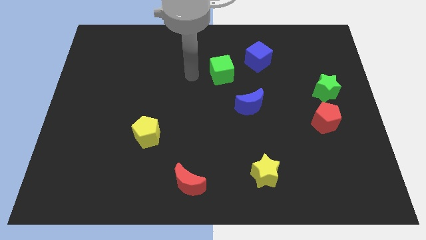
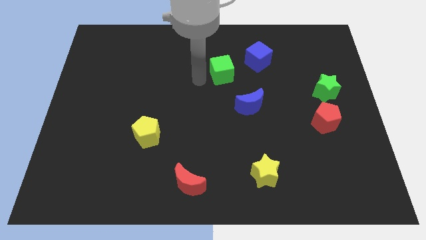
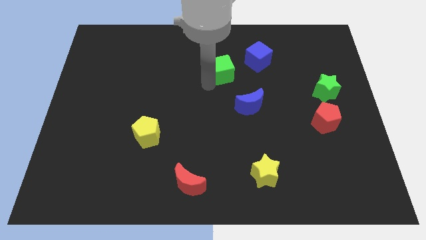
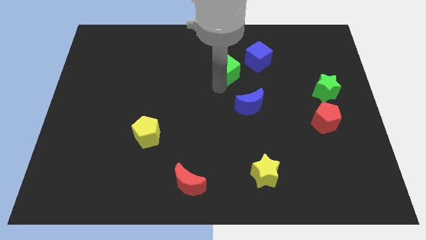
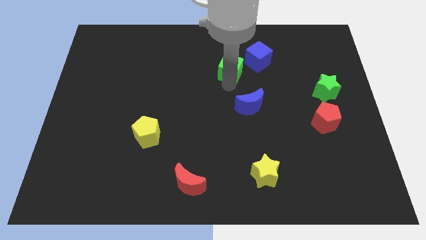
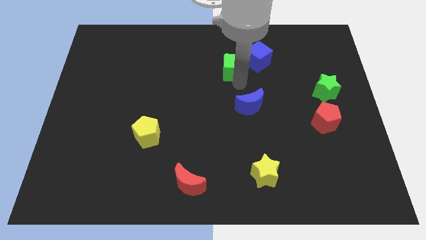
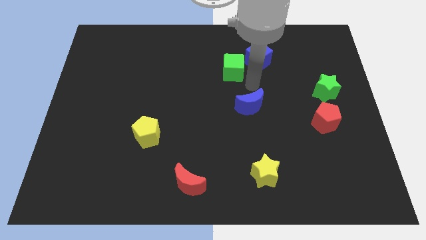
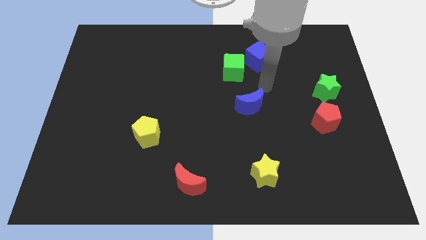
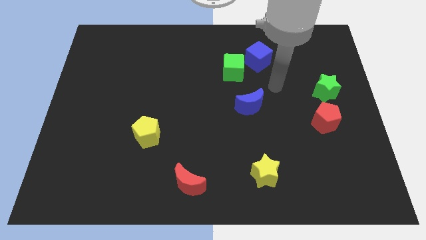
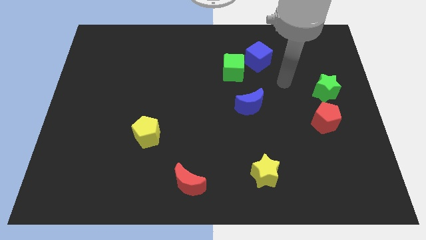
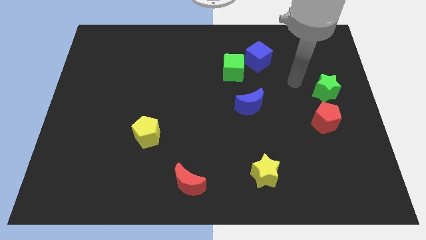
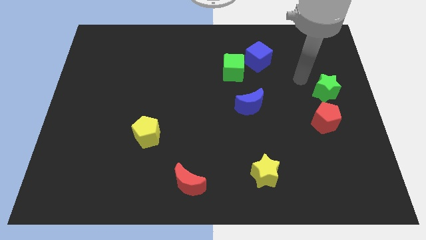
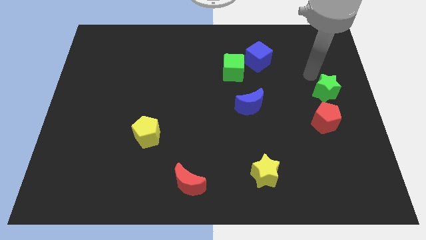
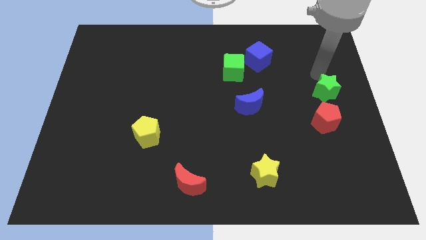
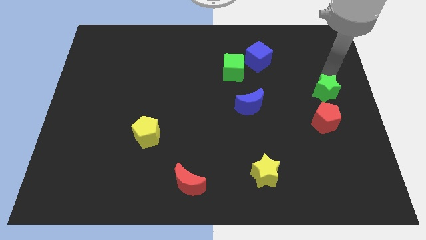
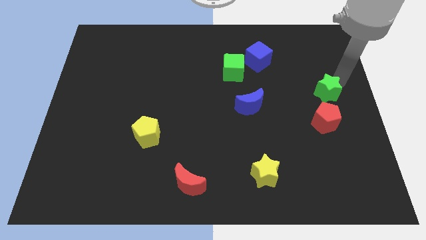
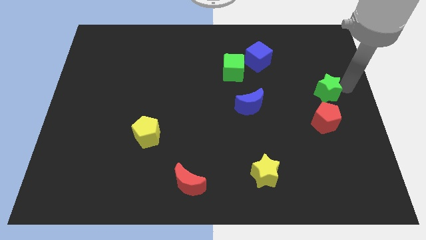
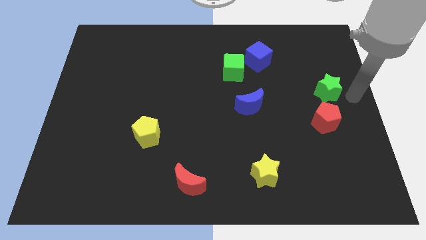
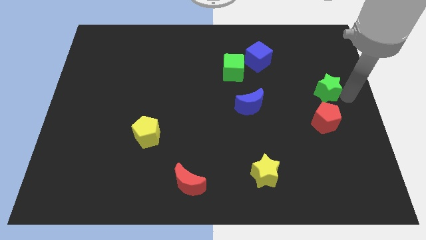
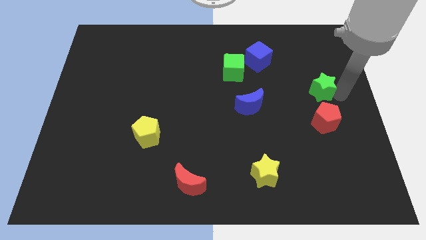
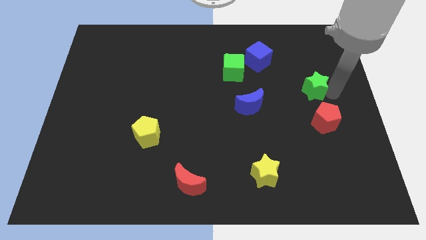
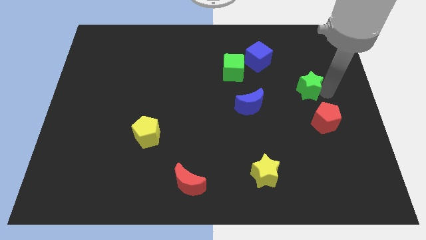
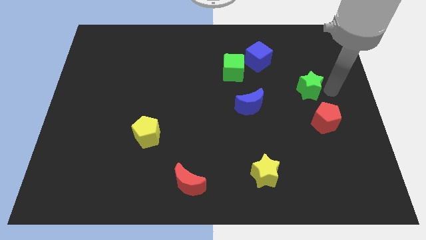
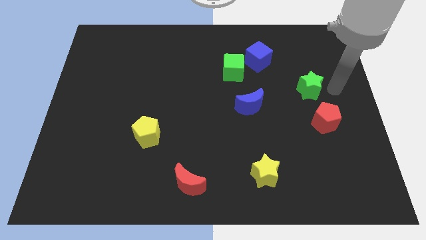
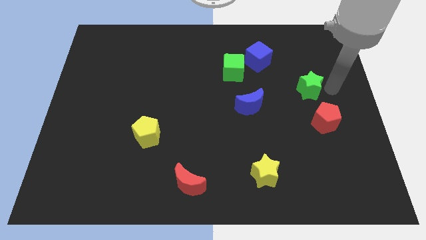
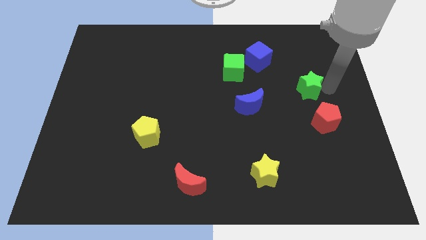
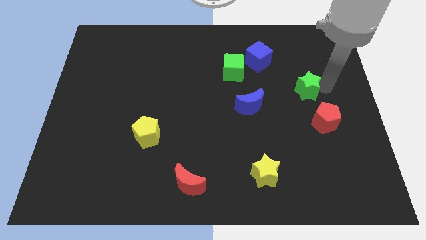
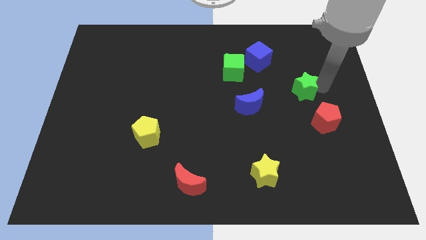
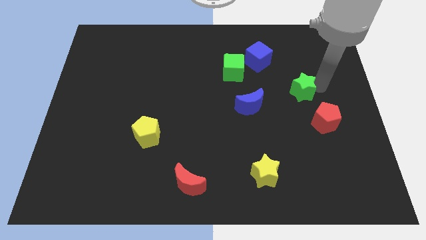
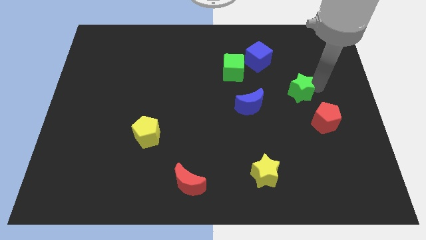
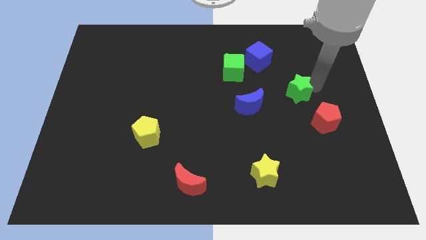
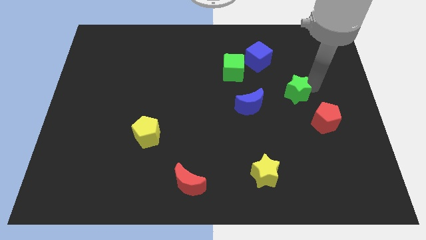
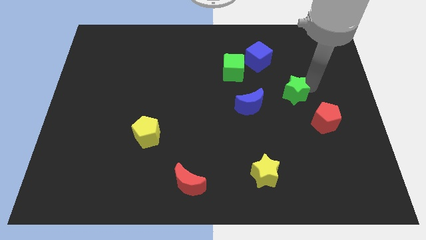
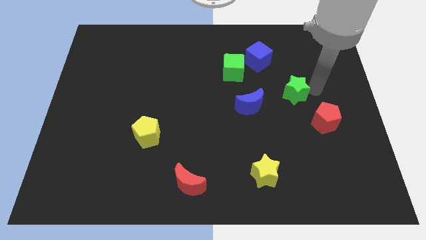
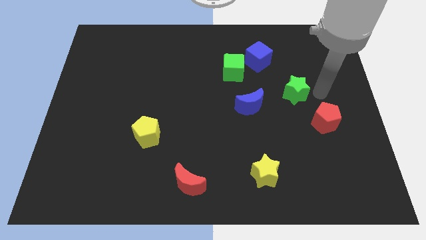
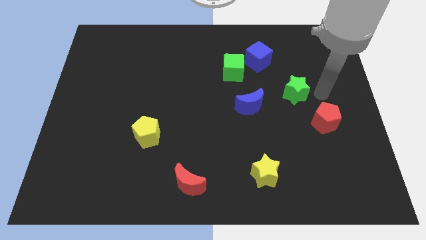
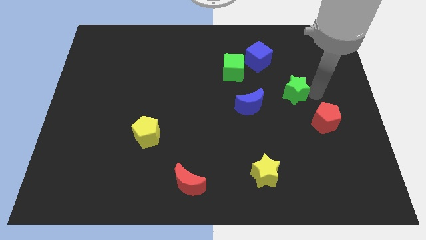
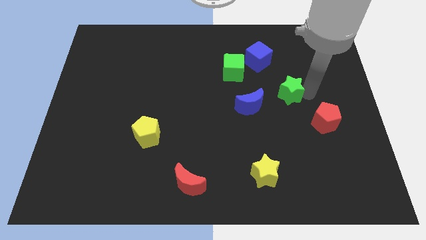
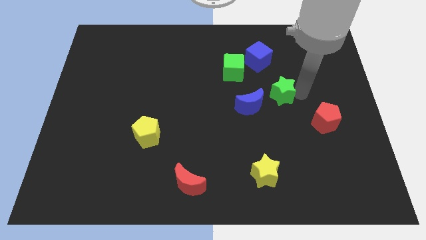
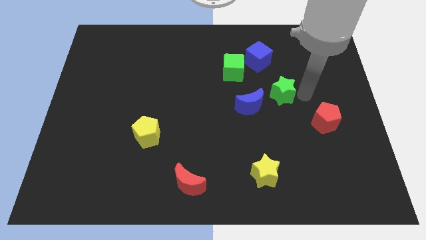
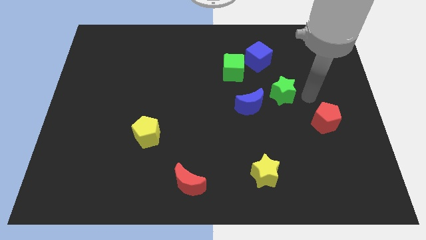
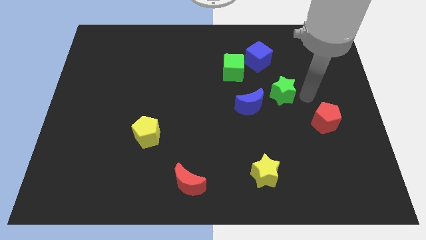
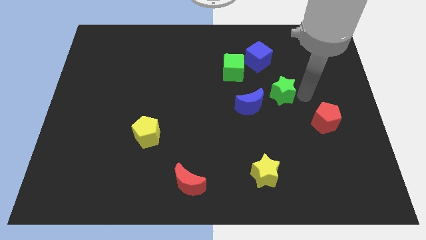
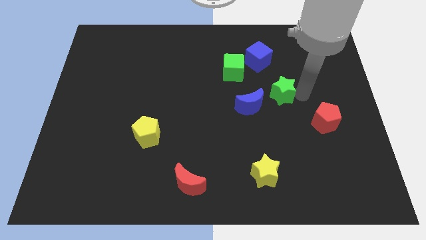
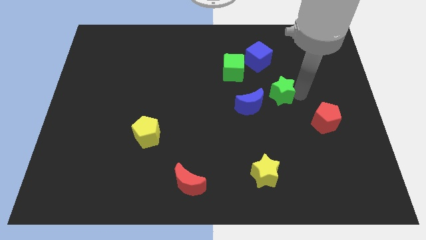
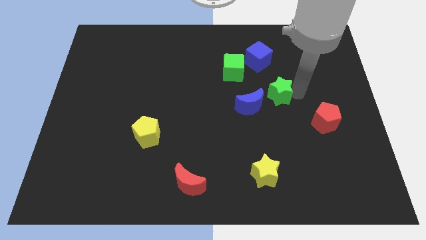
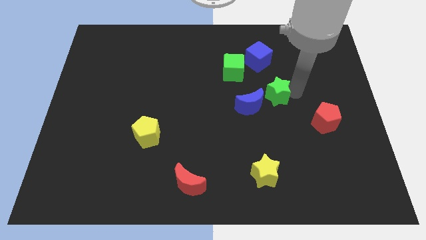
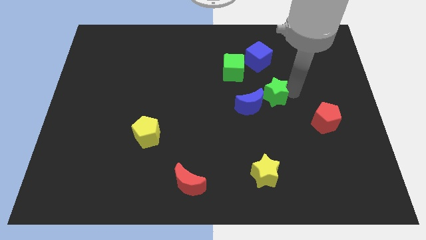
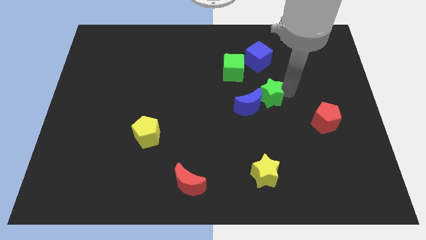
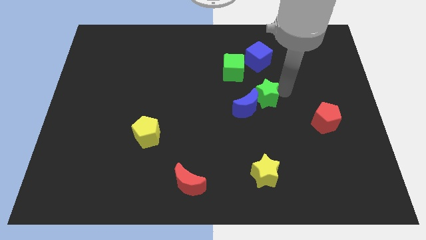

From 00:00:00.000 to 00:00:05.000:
slide the green star to the middle

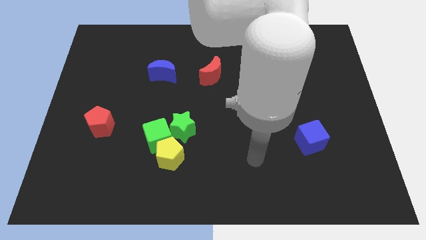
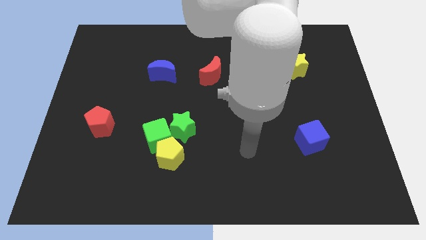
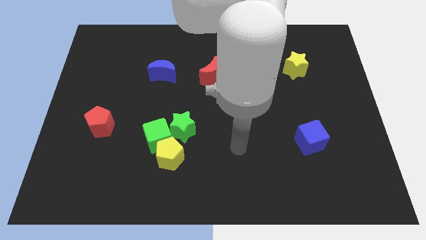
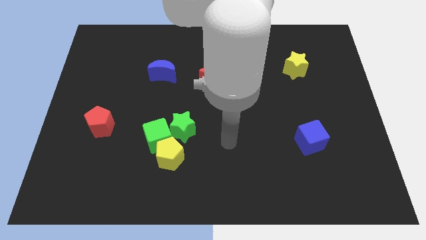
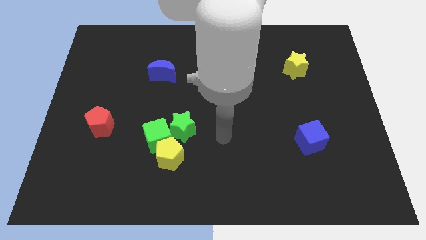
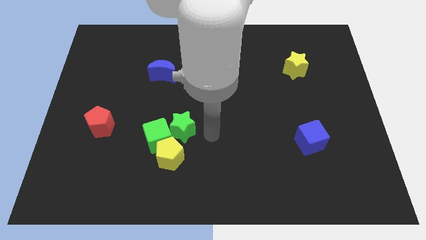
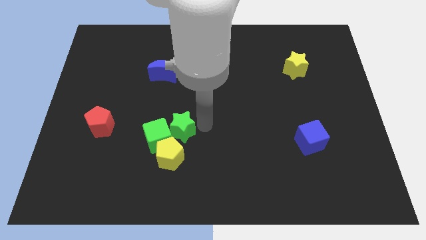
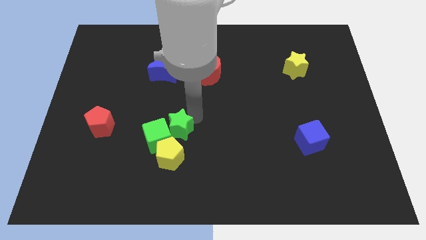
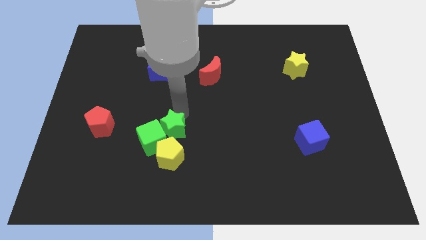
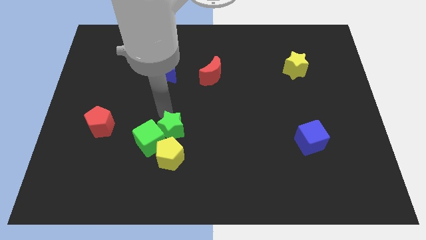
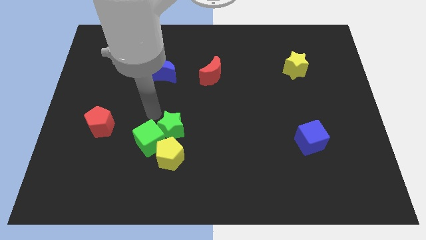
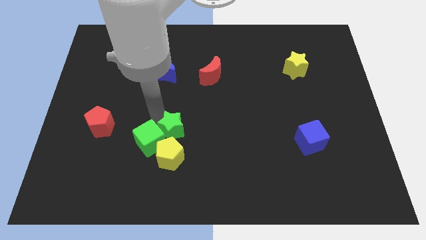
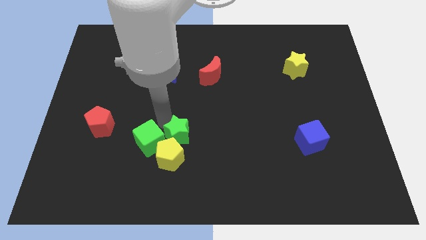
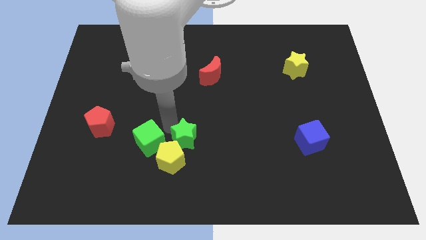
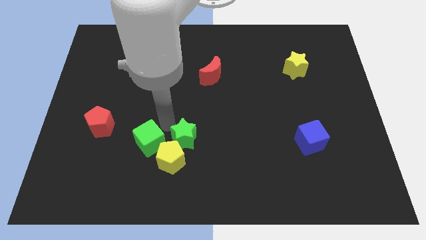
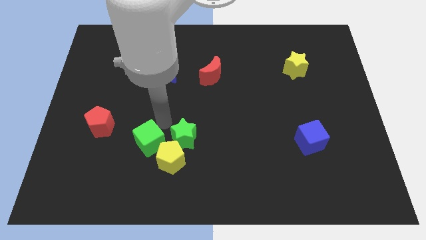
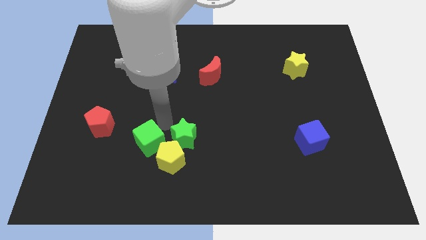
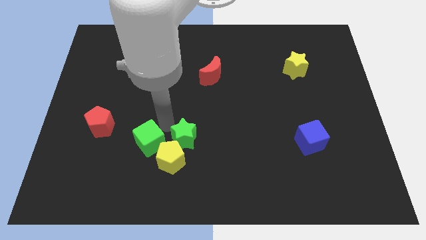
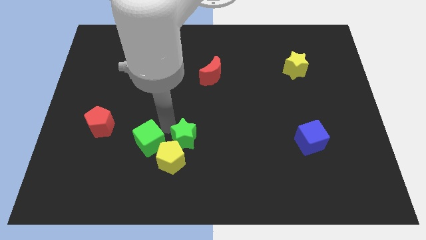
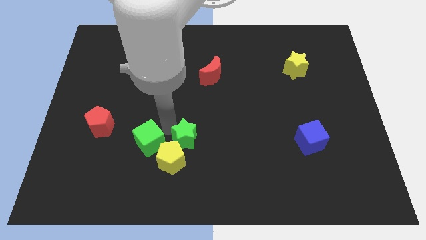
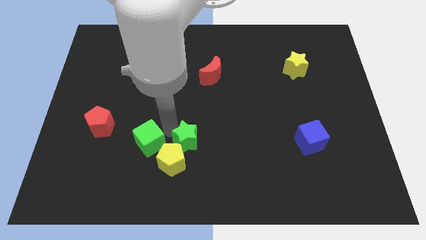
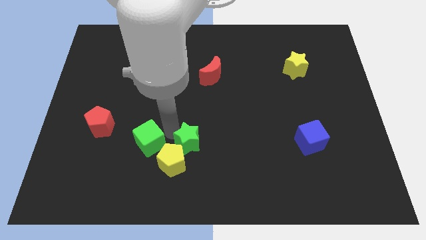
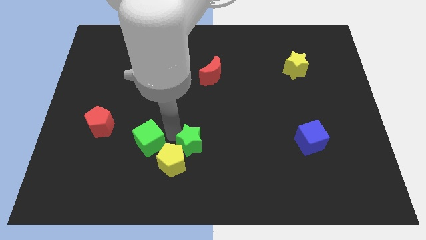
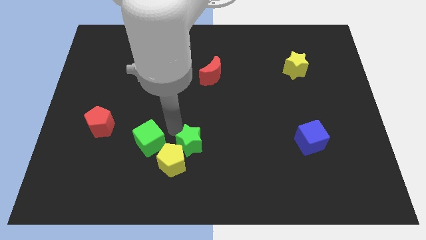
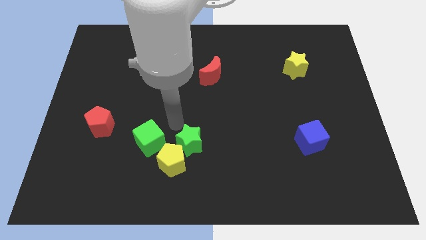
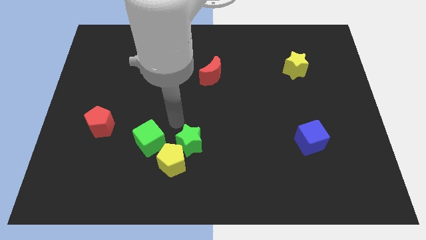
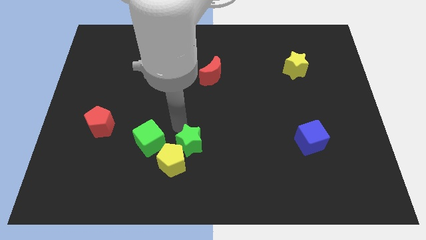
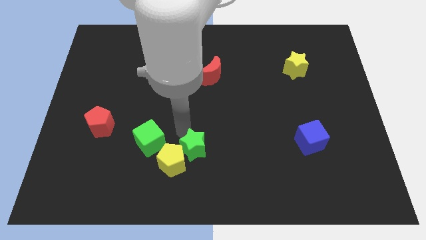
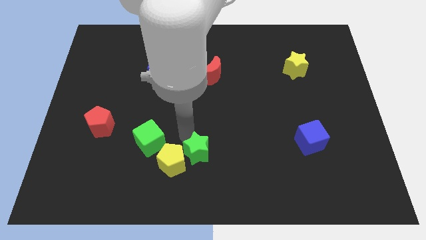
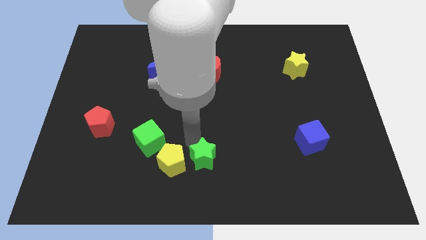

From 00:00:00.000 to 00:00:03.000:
push the green star to the bottom side
